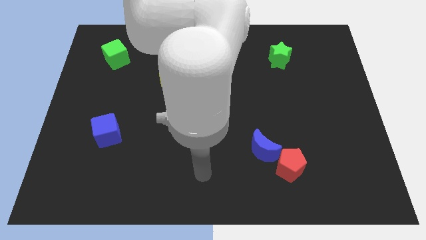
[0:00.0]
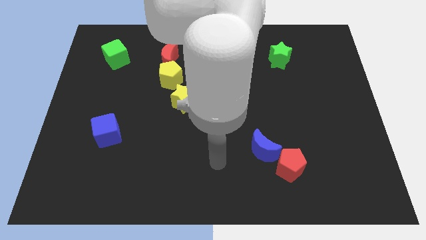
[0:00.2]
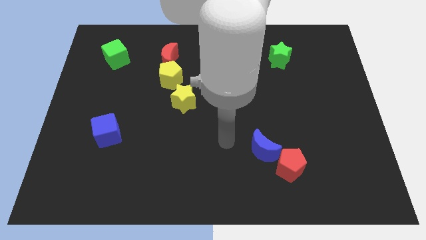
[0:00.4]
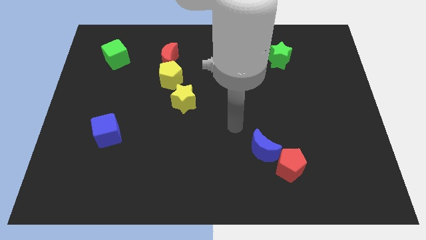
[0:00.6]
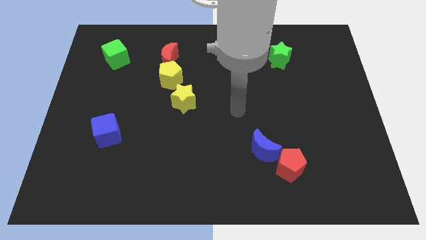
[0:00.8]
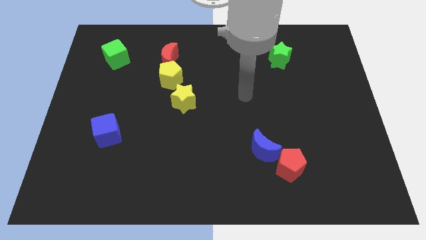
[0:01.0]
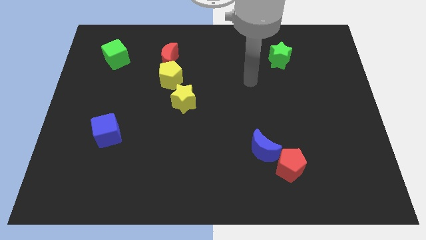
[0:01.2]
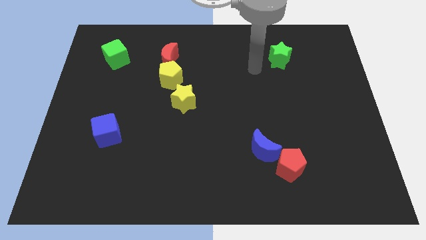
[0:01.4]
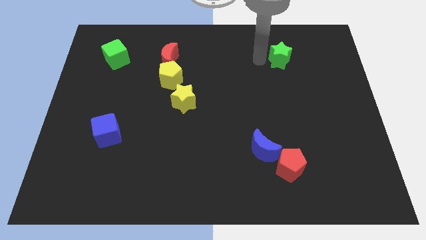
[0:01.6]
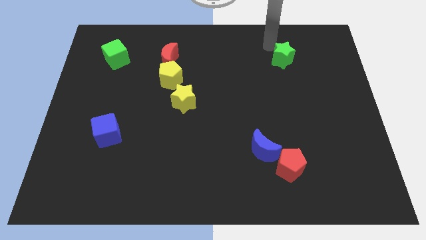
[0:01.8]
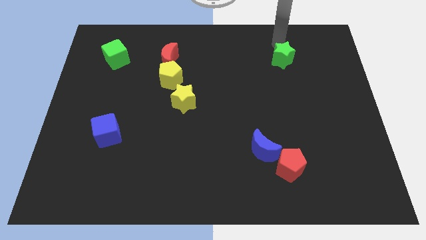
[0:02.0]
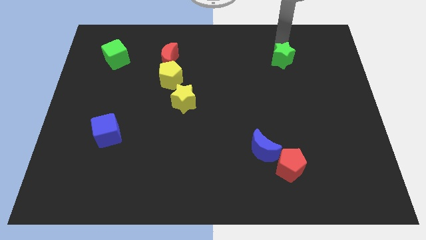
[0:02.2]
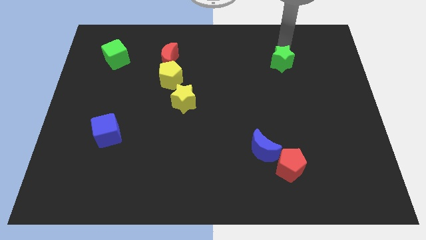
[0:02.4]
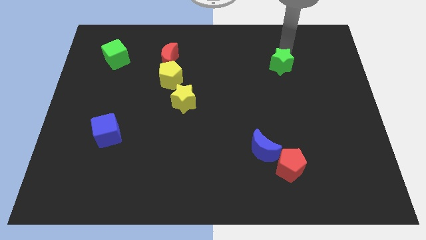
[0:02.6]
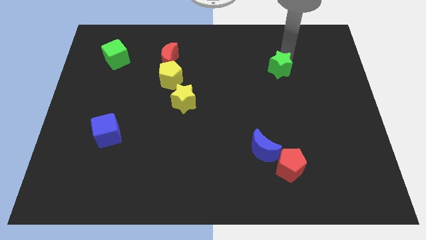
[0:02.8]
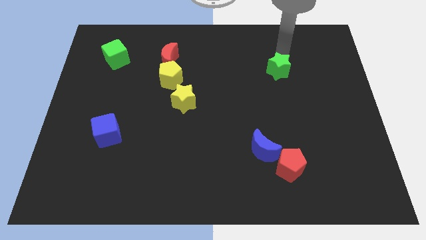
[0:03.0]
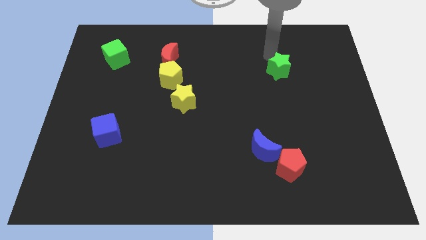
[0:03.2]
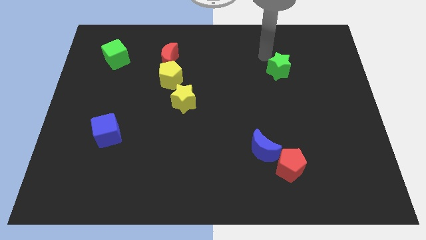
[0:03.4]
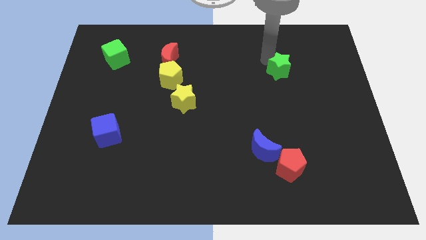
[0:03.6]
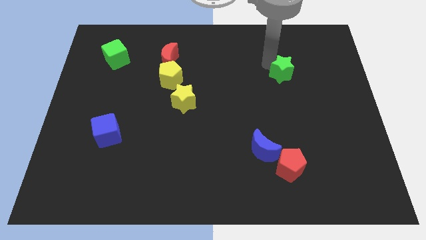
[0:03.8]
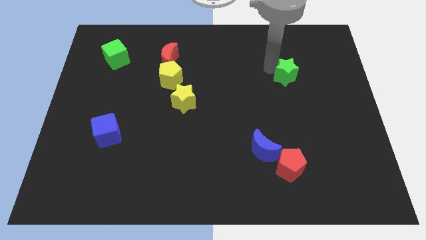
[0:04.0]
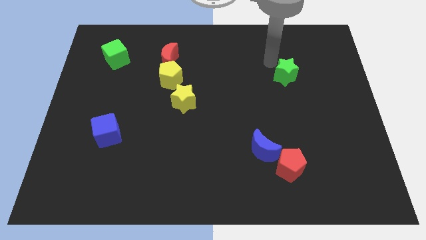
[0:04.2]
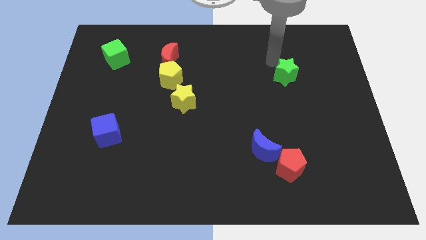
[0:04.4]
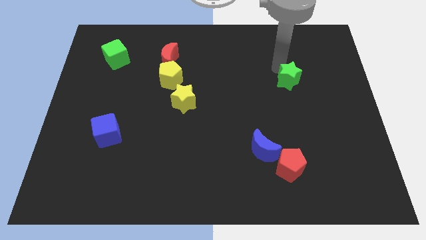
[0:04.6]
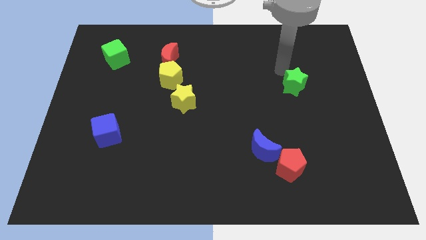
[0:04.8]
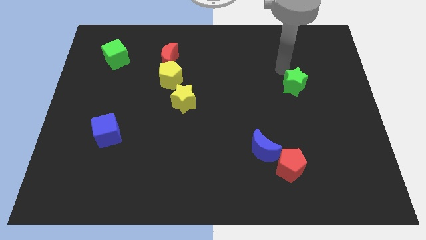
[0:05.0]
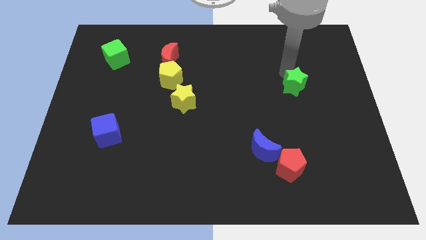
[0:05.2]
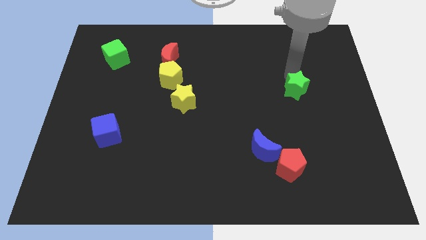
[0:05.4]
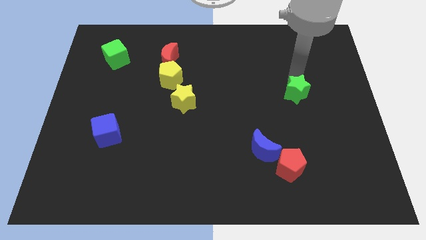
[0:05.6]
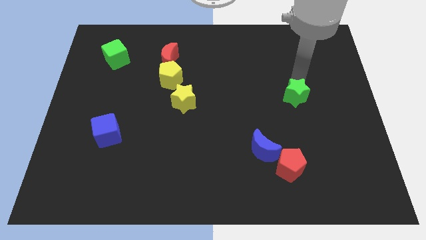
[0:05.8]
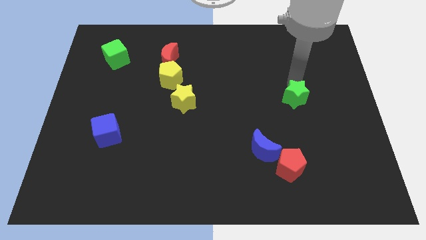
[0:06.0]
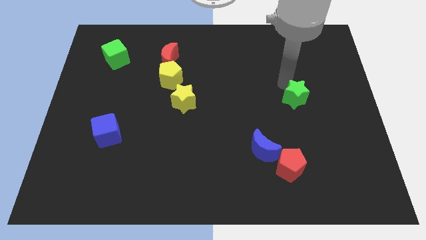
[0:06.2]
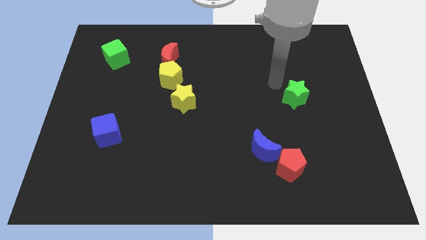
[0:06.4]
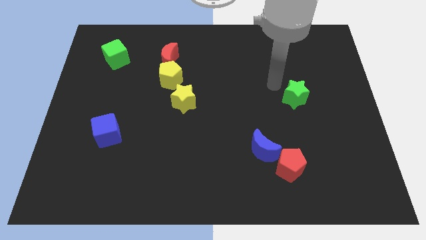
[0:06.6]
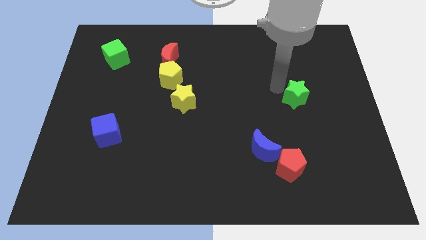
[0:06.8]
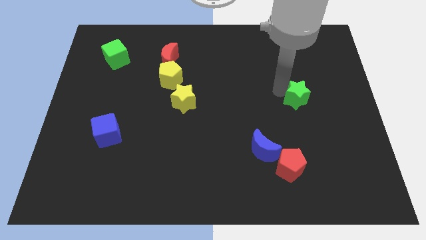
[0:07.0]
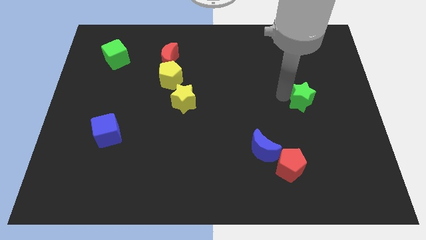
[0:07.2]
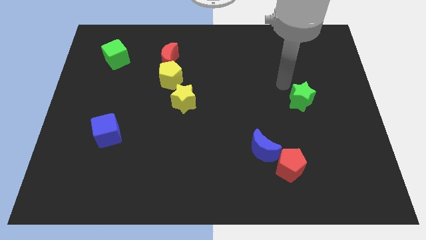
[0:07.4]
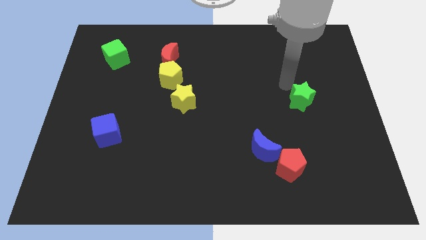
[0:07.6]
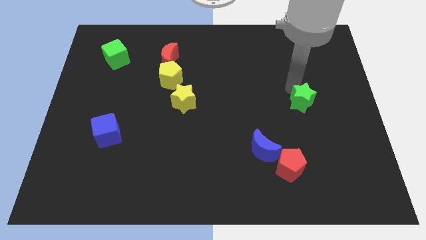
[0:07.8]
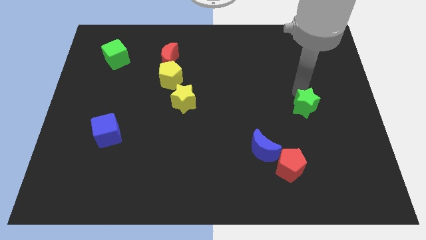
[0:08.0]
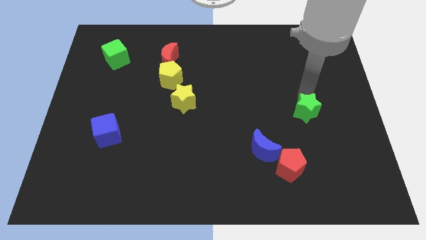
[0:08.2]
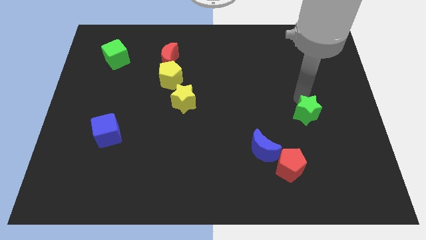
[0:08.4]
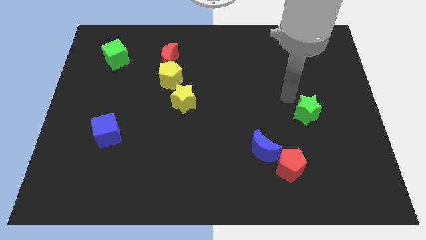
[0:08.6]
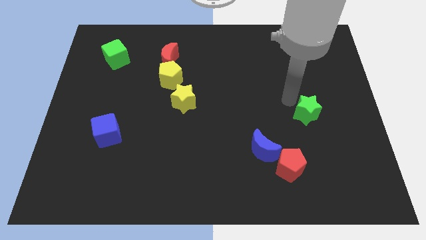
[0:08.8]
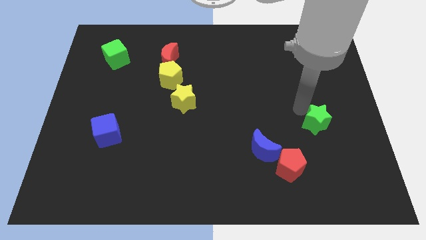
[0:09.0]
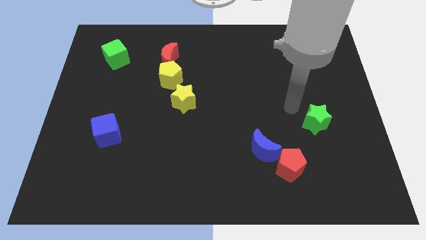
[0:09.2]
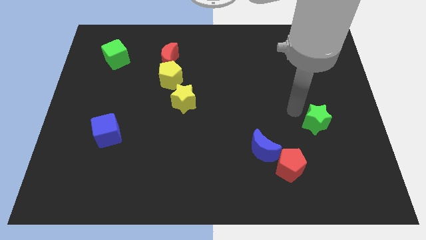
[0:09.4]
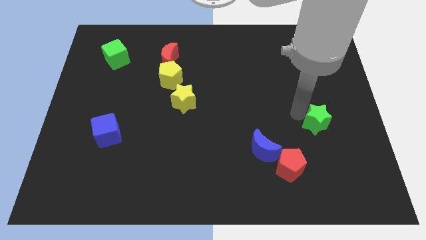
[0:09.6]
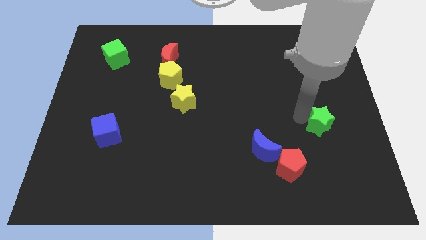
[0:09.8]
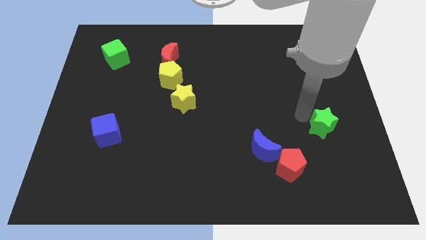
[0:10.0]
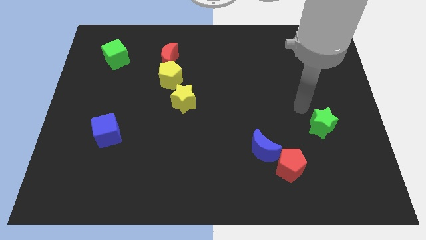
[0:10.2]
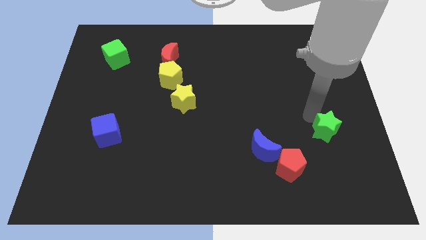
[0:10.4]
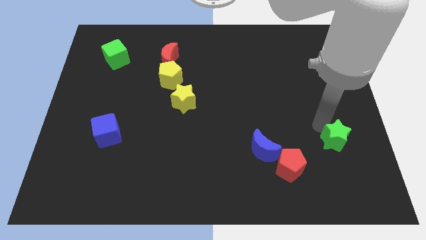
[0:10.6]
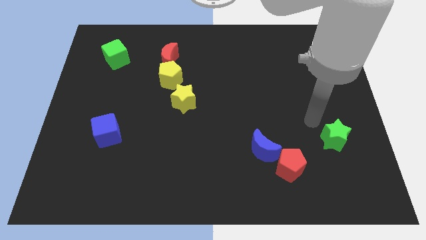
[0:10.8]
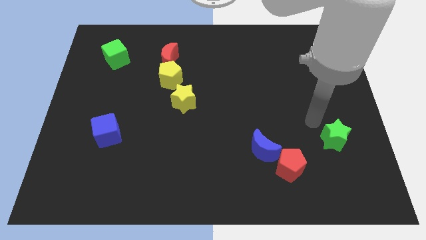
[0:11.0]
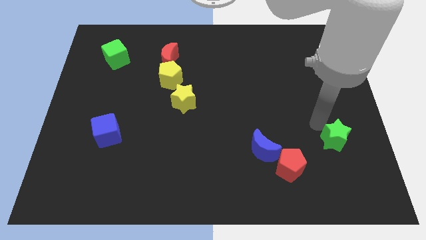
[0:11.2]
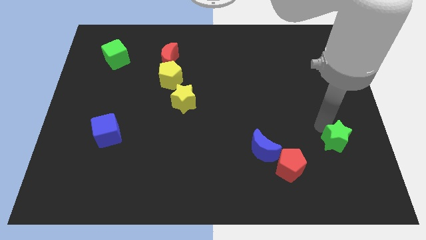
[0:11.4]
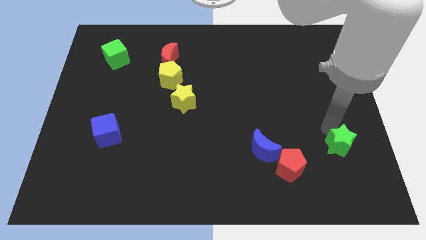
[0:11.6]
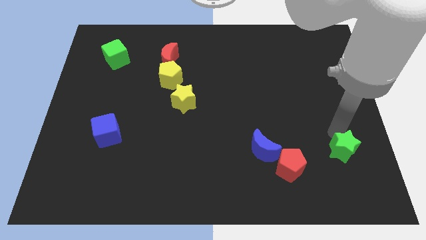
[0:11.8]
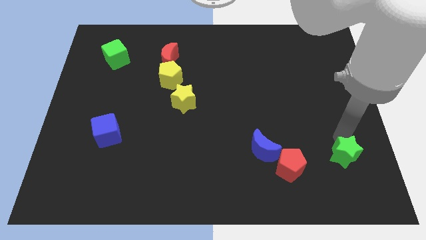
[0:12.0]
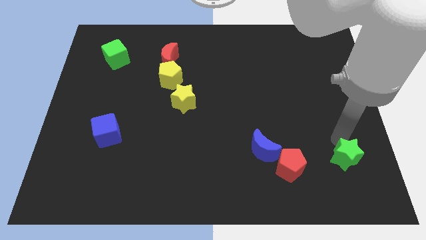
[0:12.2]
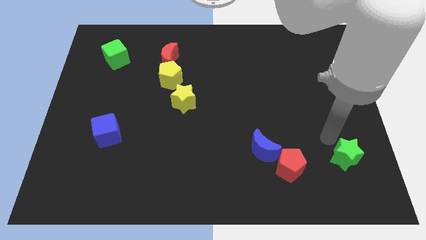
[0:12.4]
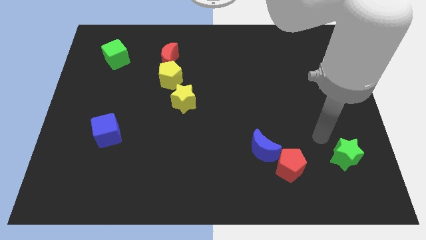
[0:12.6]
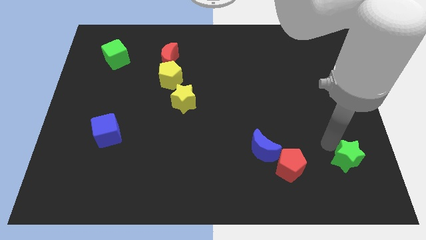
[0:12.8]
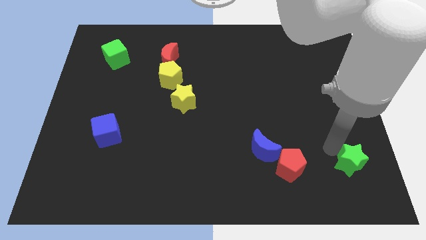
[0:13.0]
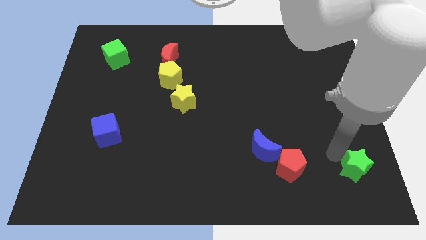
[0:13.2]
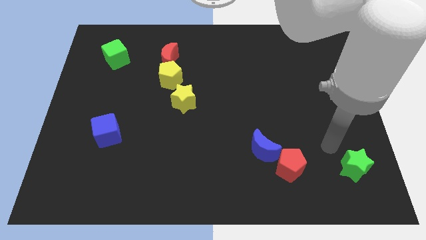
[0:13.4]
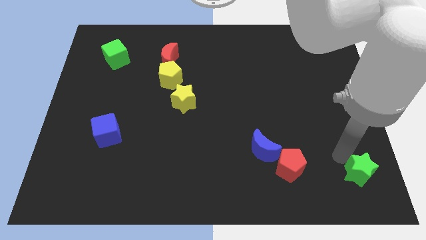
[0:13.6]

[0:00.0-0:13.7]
move the green star to the bottom right corner

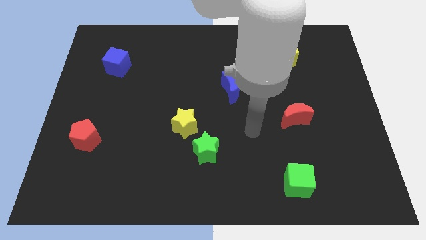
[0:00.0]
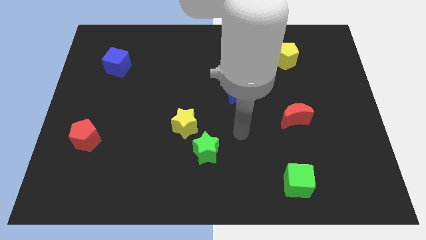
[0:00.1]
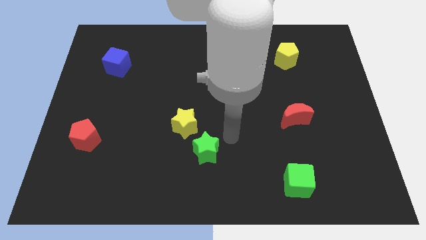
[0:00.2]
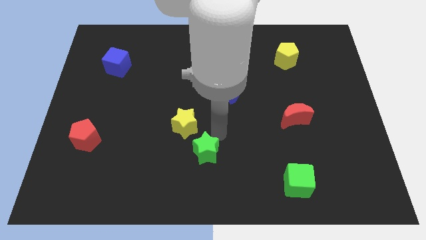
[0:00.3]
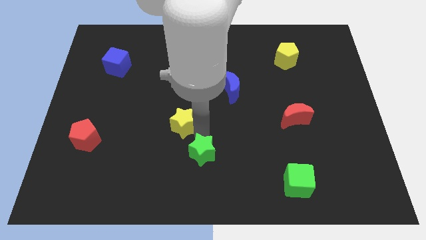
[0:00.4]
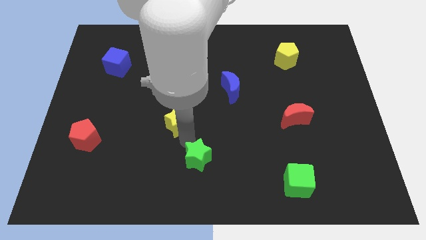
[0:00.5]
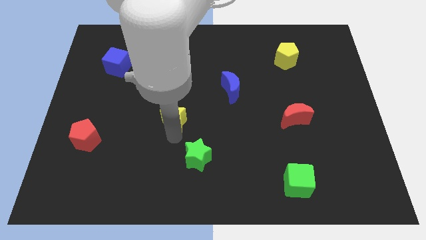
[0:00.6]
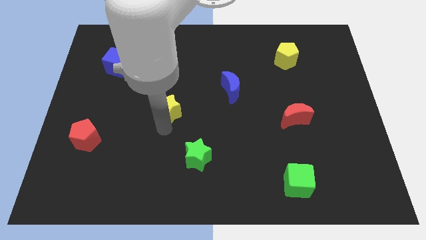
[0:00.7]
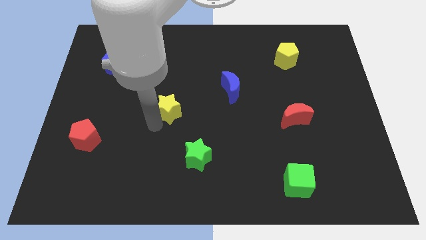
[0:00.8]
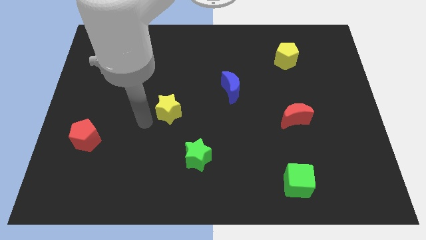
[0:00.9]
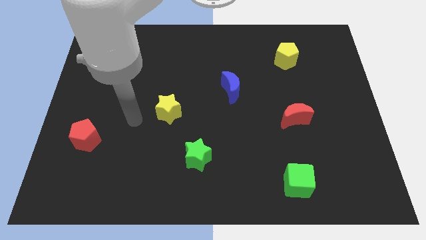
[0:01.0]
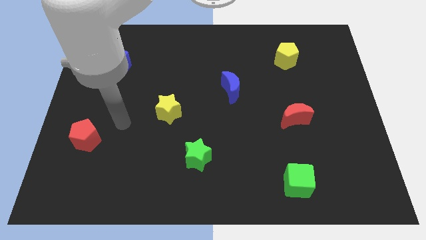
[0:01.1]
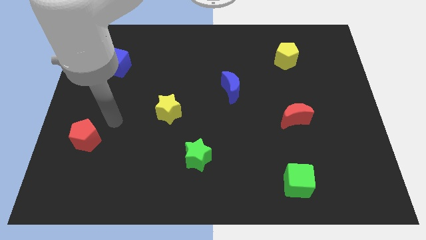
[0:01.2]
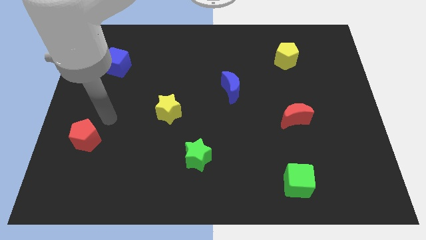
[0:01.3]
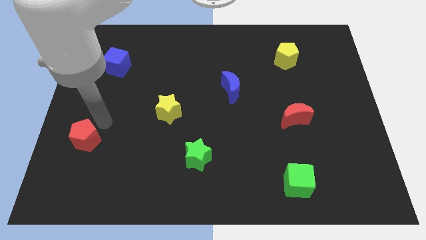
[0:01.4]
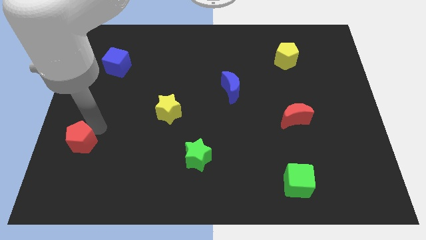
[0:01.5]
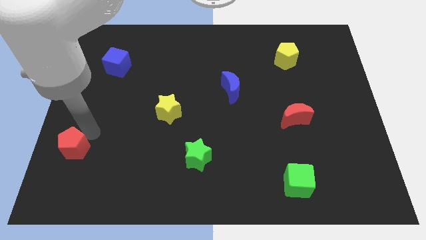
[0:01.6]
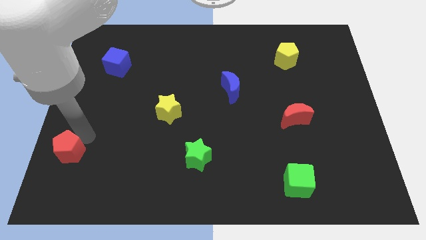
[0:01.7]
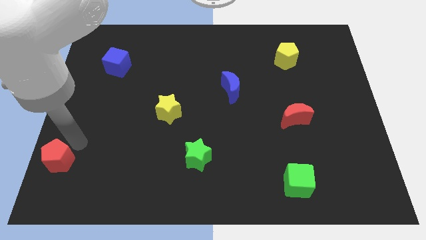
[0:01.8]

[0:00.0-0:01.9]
slide the red pentagon to the bottom left
